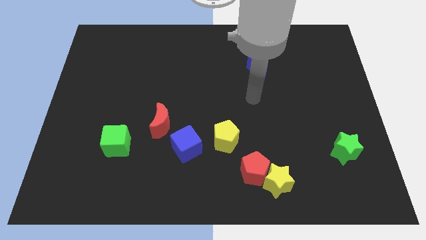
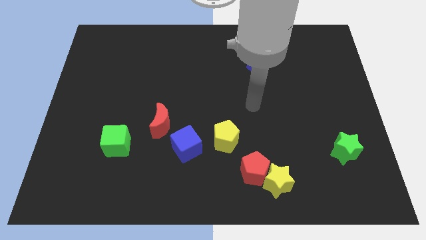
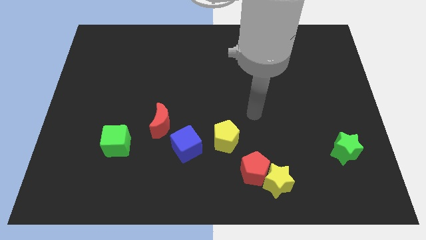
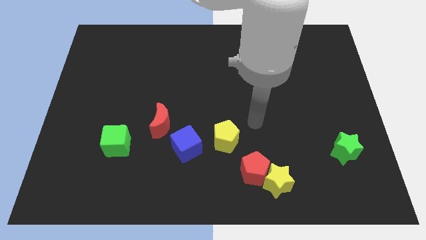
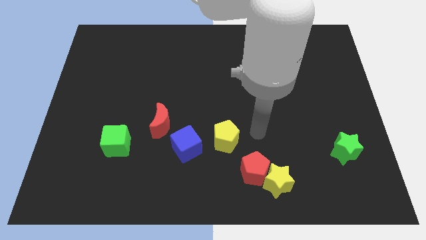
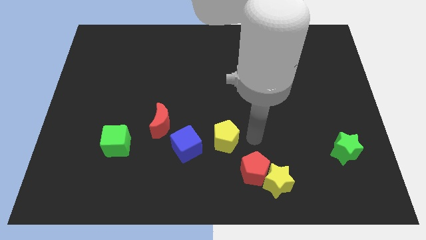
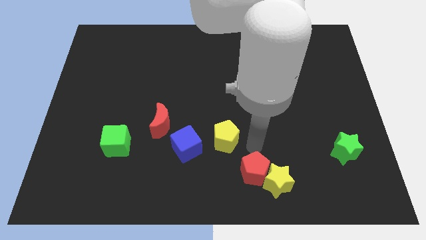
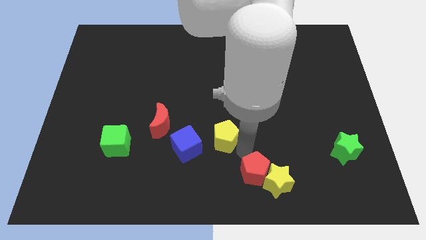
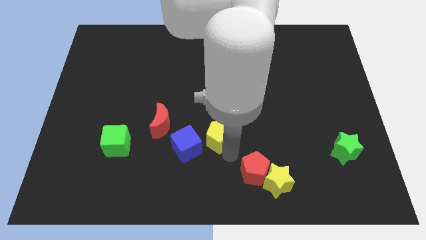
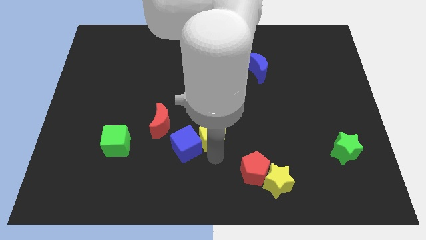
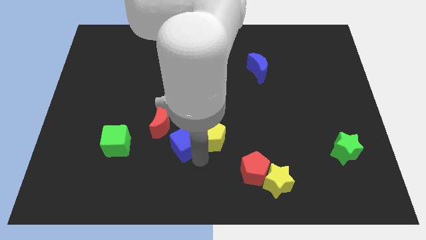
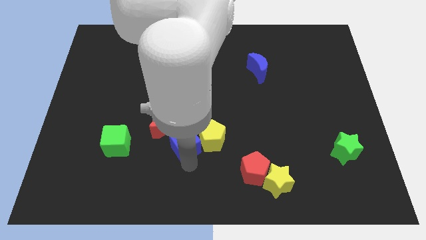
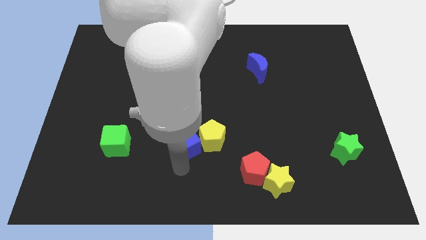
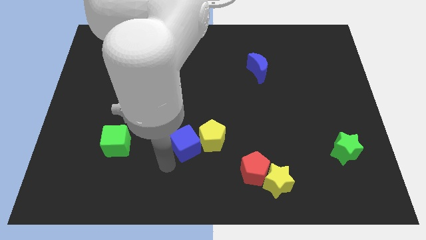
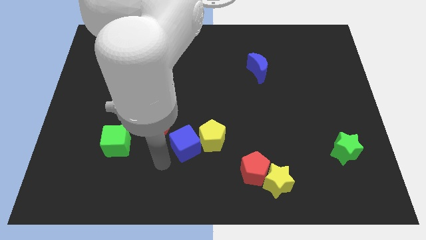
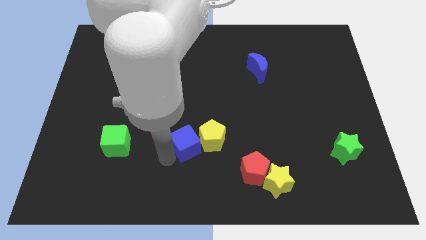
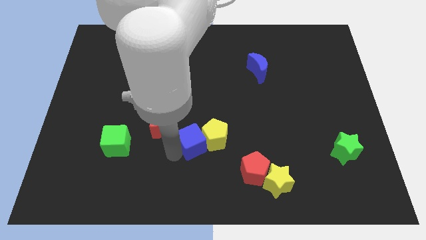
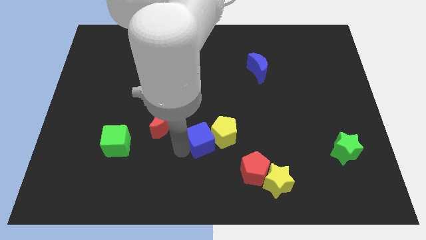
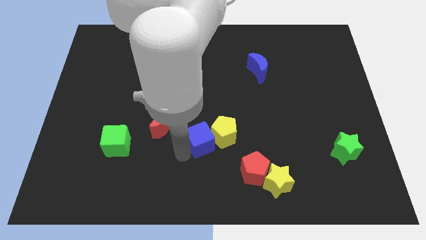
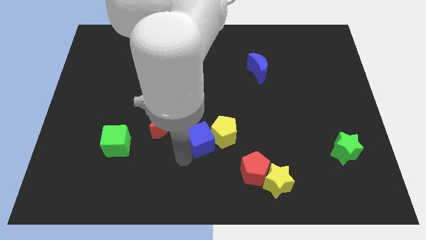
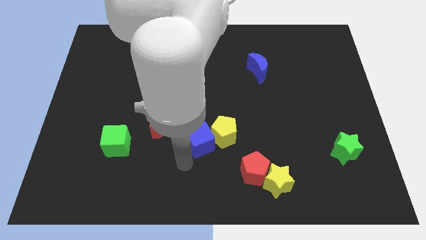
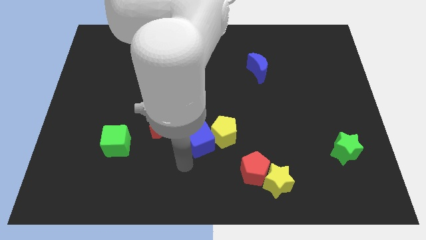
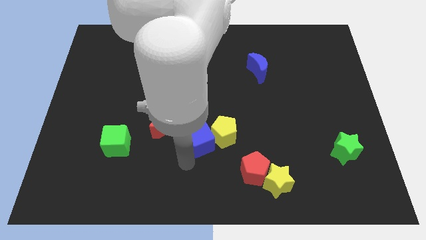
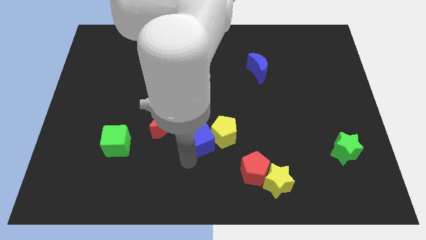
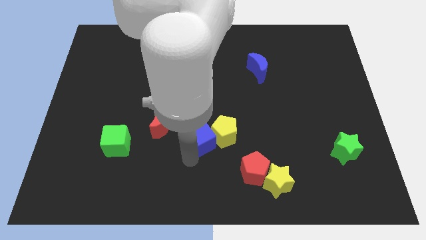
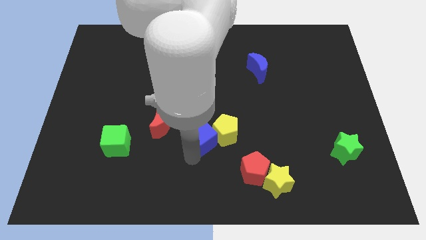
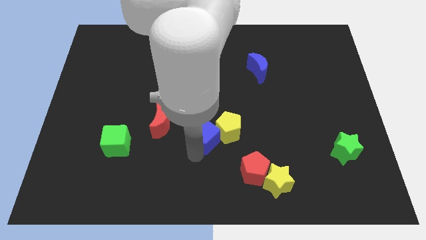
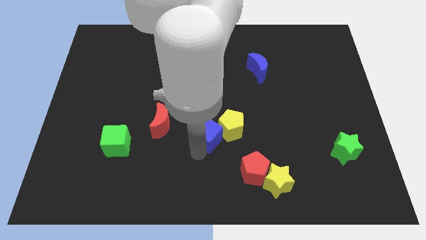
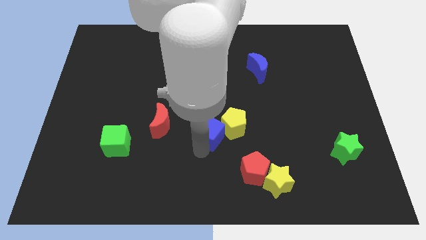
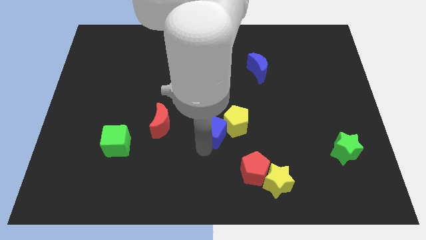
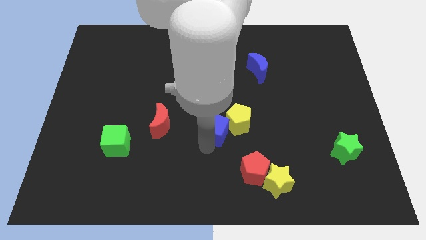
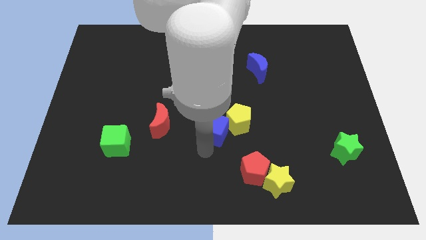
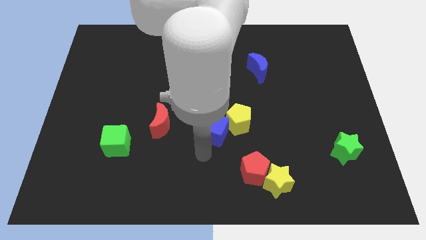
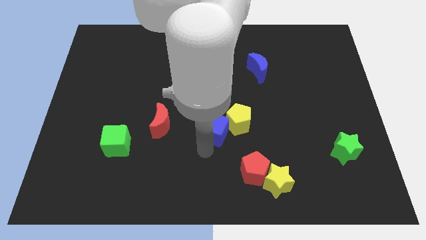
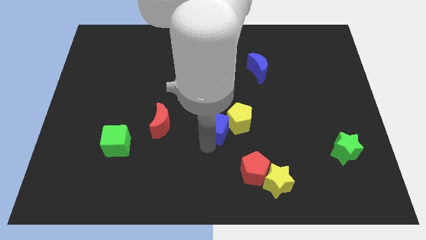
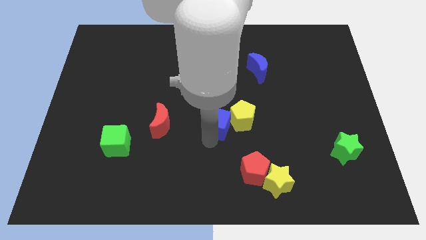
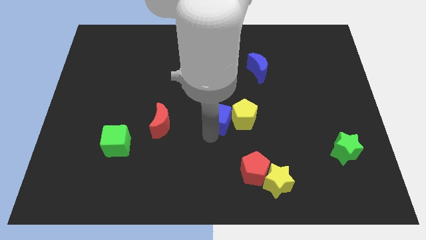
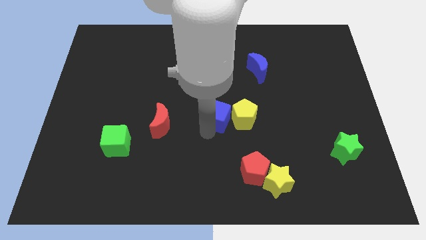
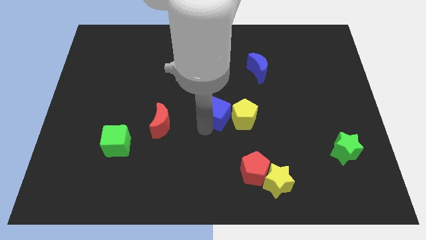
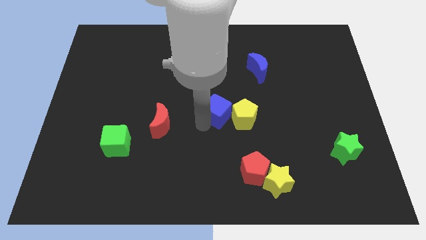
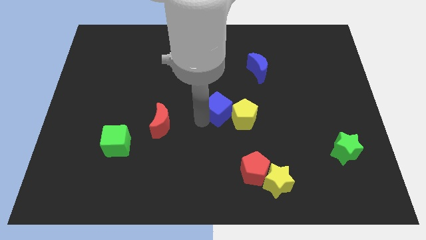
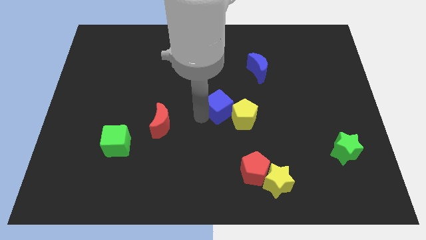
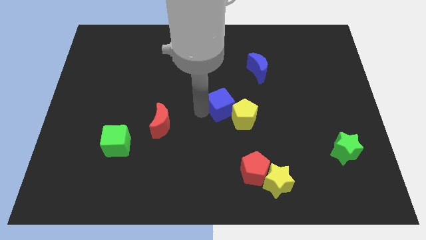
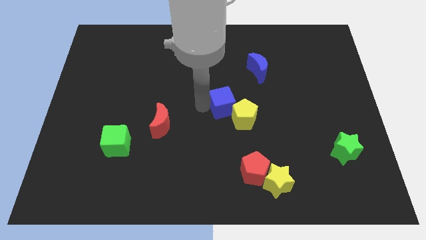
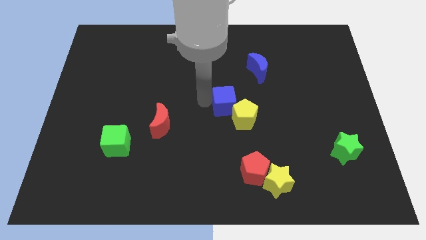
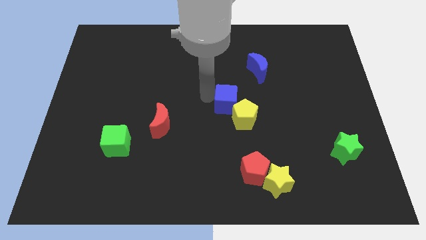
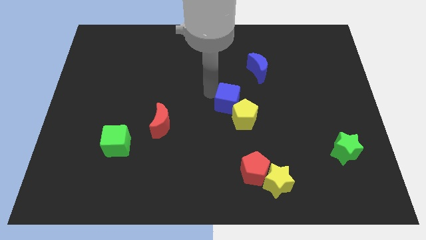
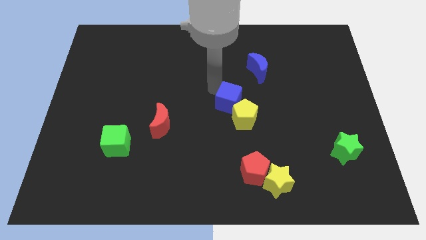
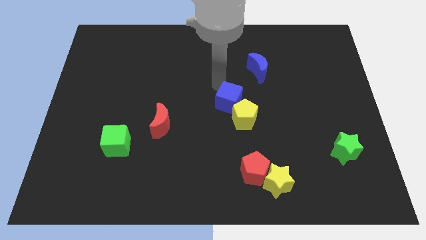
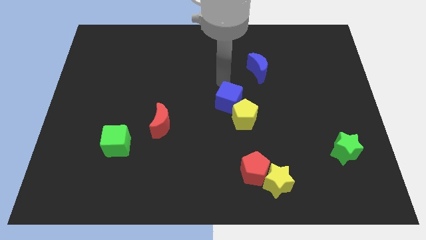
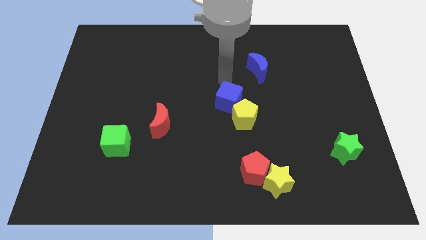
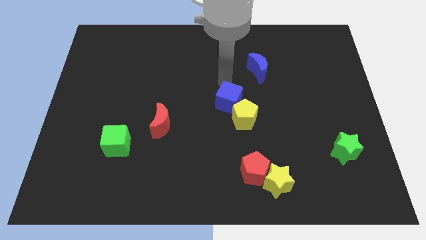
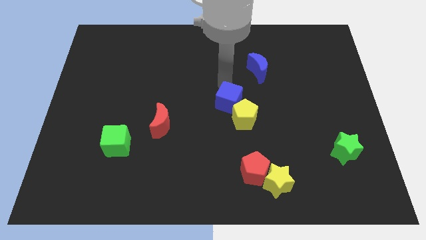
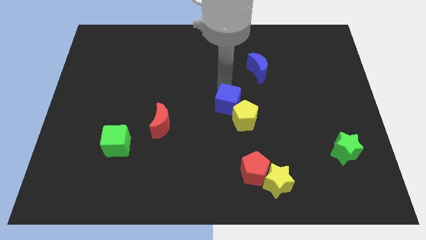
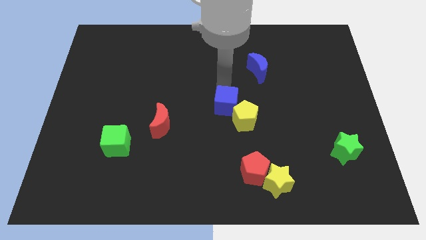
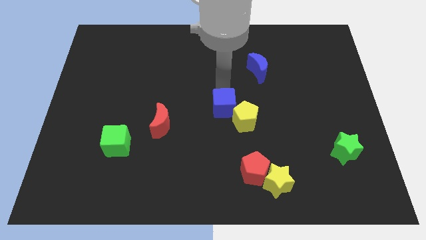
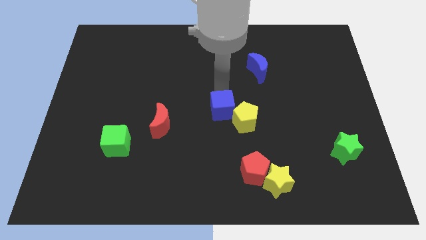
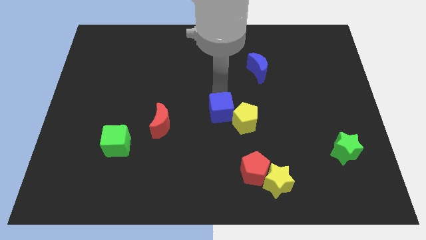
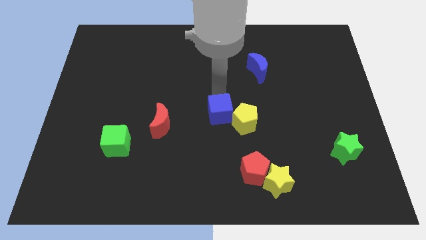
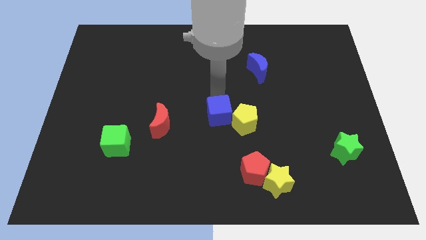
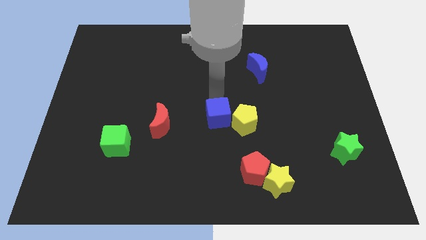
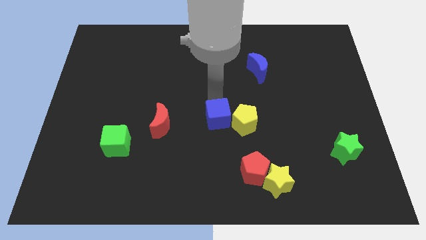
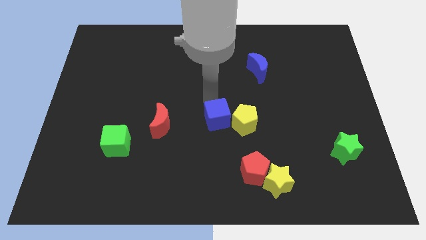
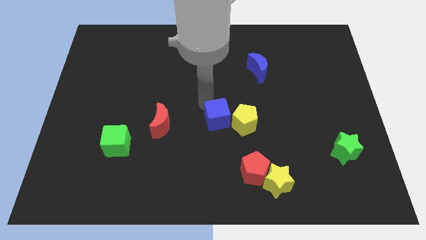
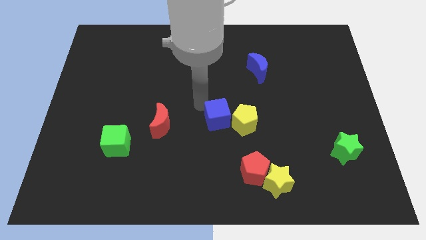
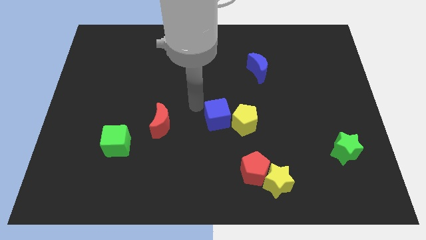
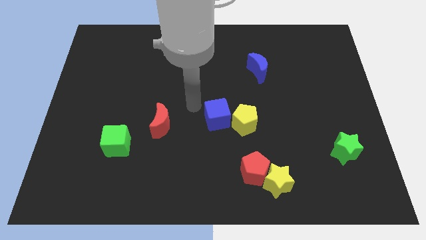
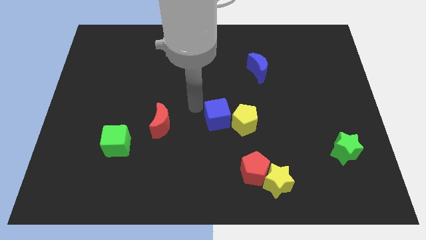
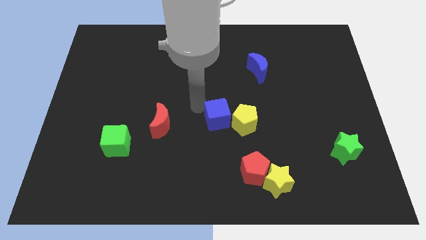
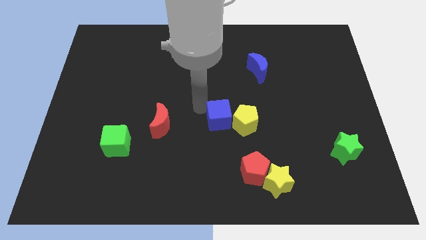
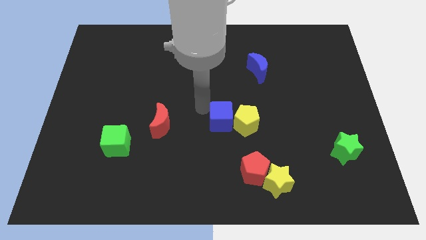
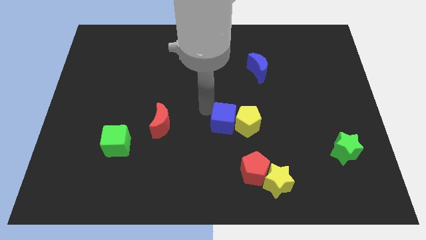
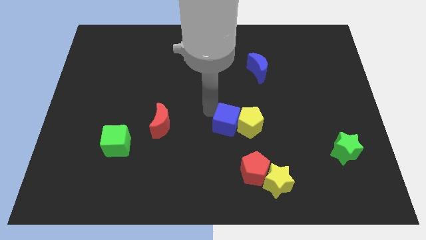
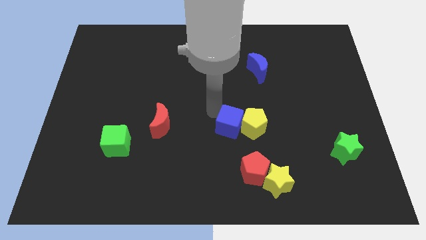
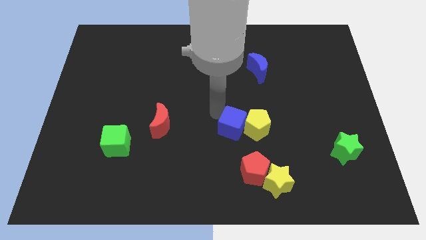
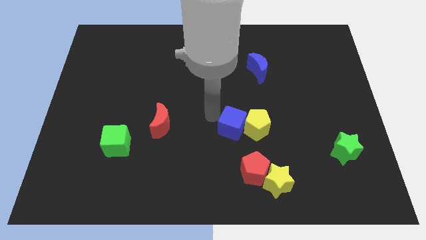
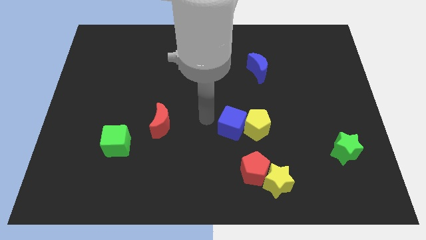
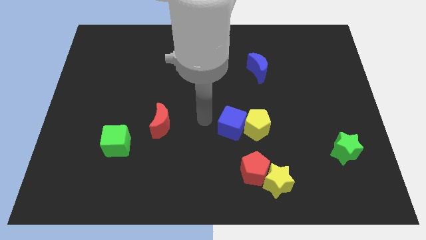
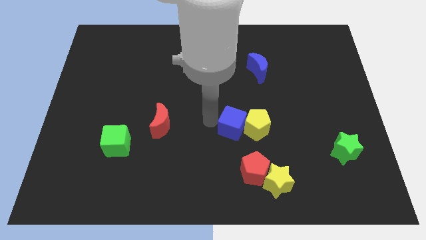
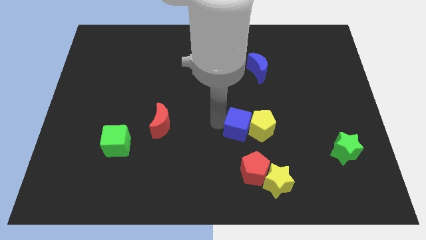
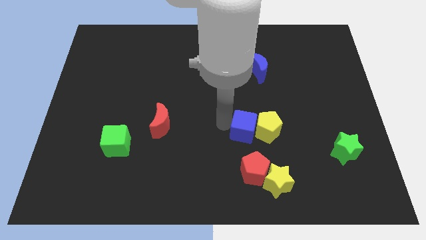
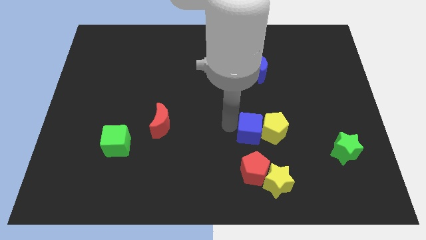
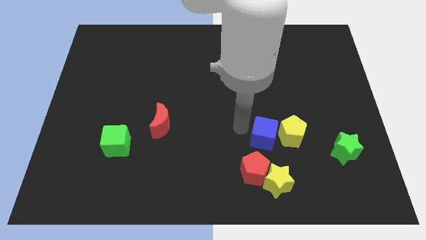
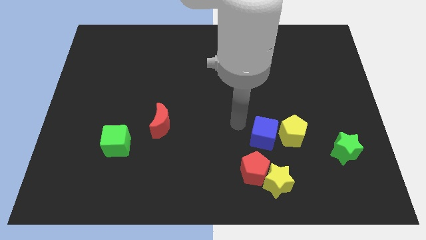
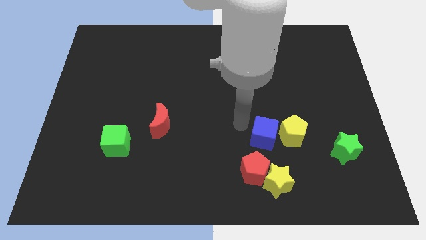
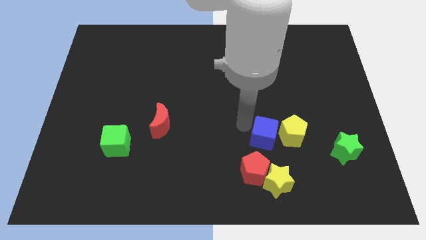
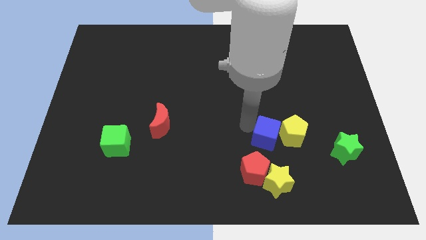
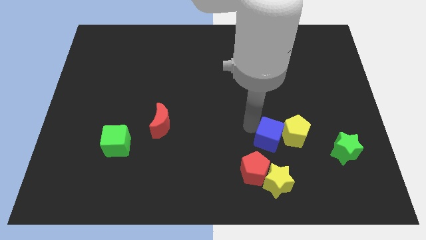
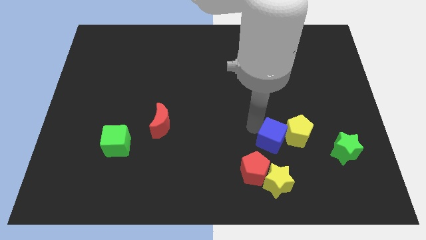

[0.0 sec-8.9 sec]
push the blue cube just left of the green star
